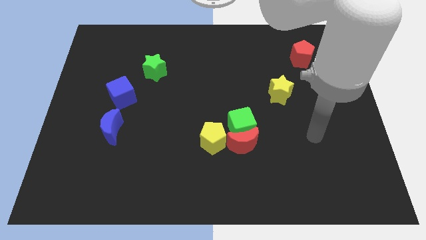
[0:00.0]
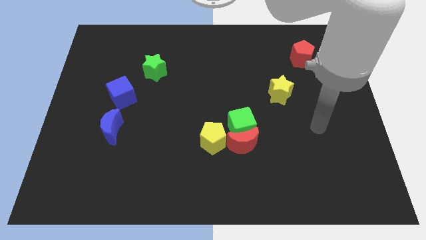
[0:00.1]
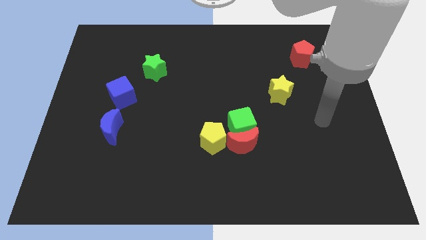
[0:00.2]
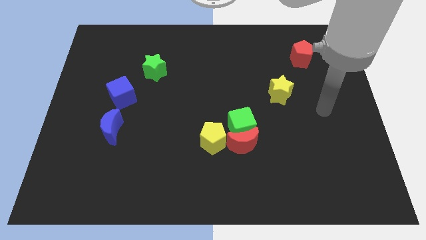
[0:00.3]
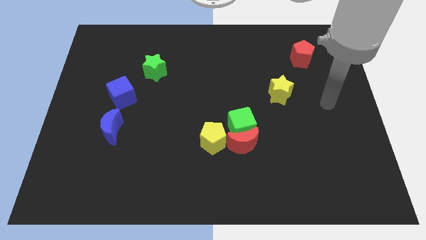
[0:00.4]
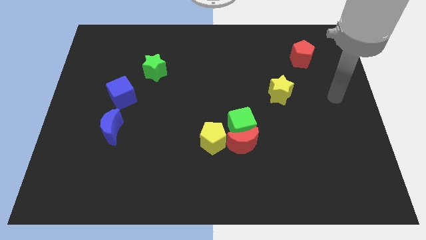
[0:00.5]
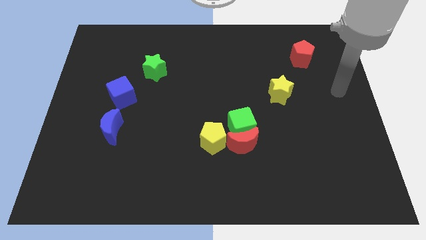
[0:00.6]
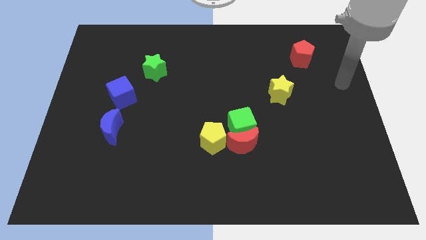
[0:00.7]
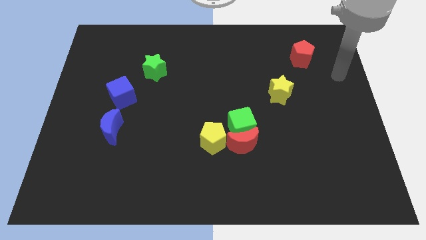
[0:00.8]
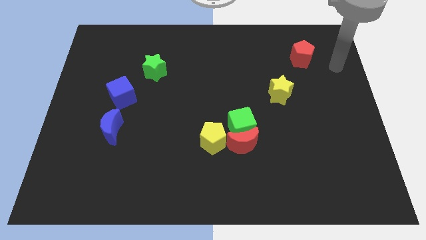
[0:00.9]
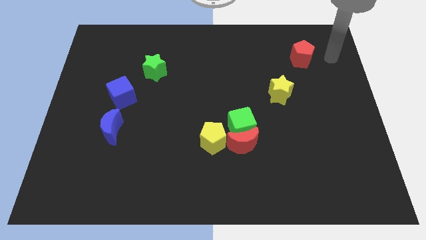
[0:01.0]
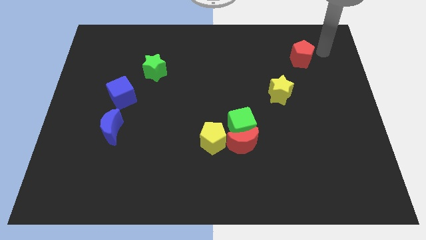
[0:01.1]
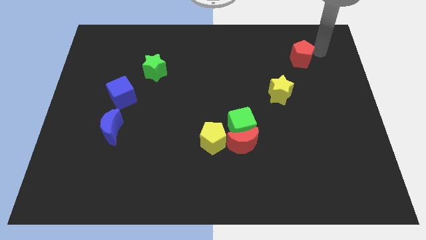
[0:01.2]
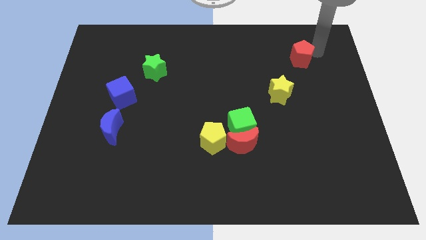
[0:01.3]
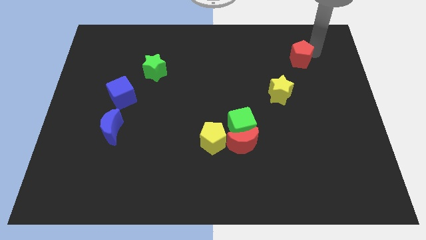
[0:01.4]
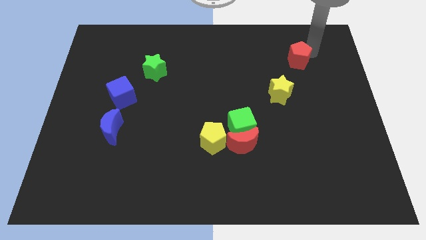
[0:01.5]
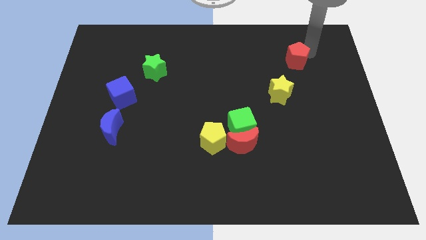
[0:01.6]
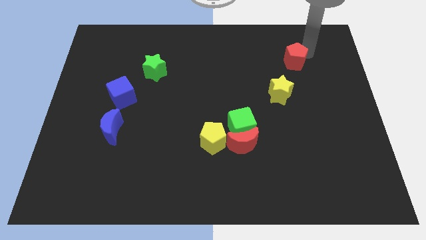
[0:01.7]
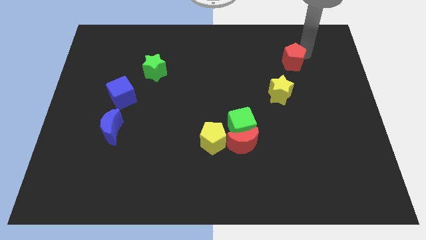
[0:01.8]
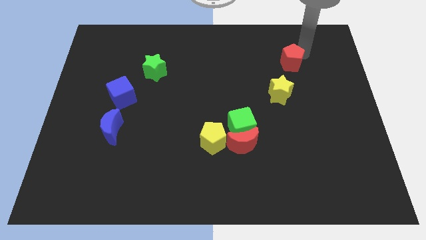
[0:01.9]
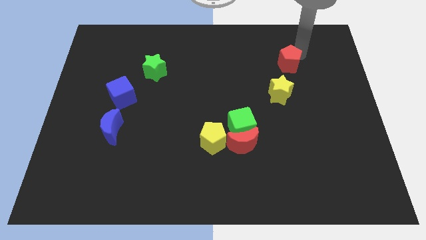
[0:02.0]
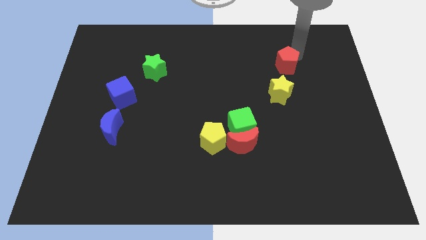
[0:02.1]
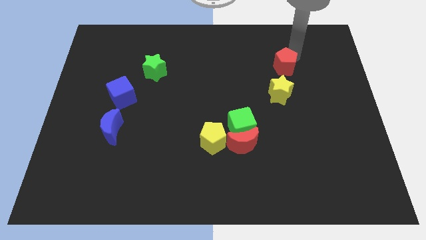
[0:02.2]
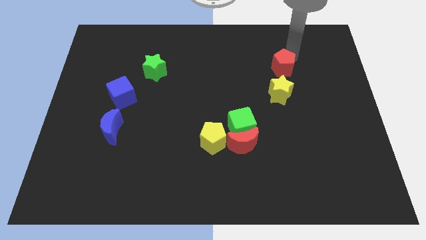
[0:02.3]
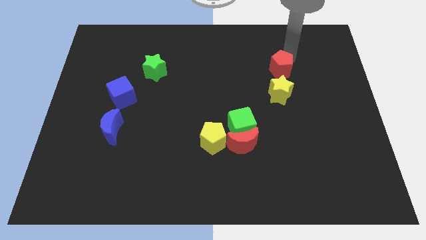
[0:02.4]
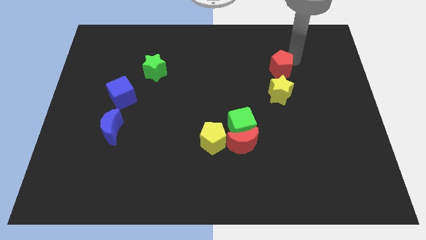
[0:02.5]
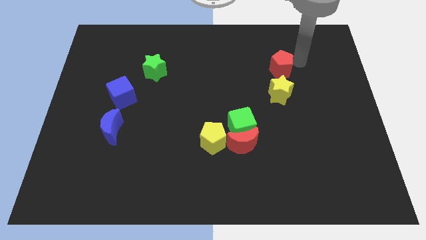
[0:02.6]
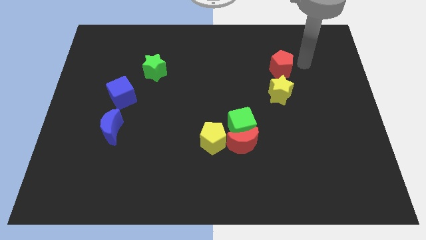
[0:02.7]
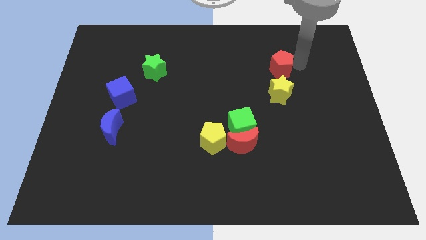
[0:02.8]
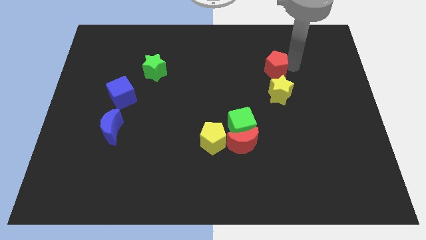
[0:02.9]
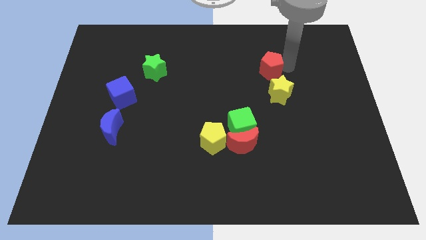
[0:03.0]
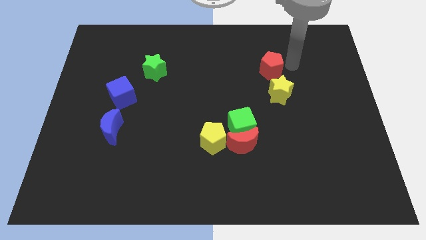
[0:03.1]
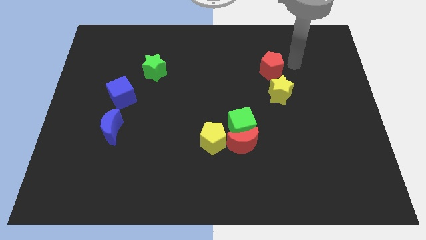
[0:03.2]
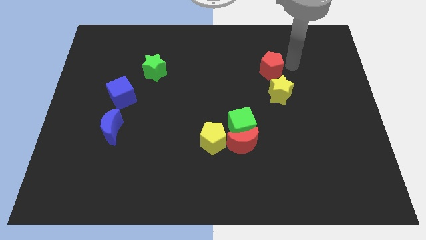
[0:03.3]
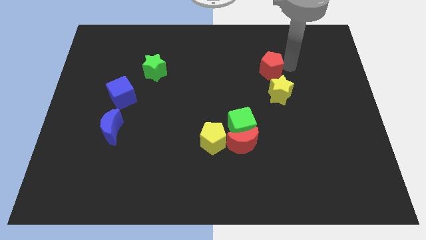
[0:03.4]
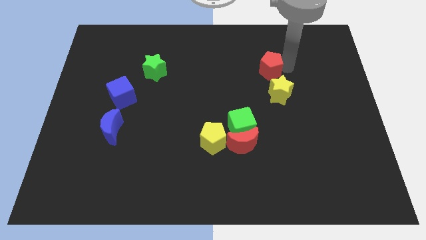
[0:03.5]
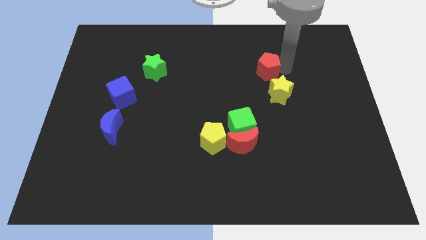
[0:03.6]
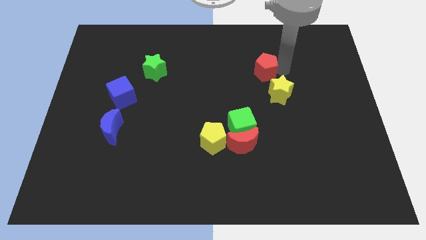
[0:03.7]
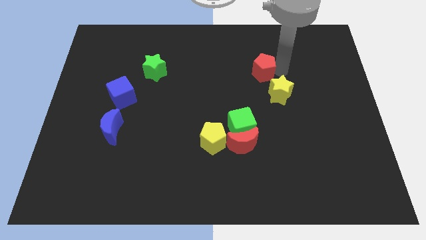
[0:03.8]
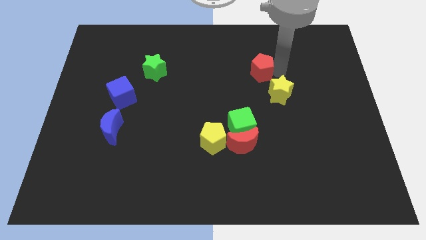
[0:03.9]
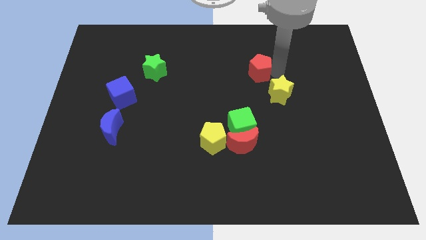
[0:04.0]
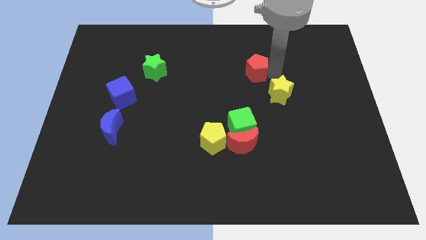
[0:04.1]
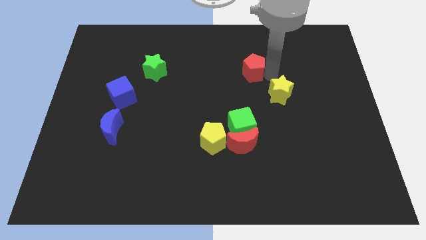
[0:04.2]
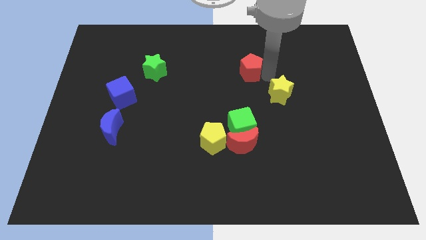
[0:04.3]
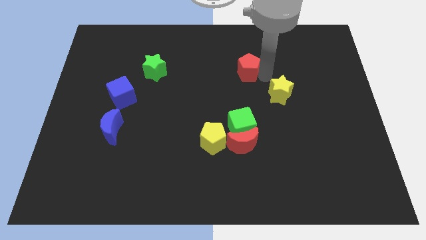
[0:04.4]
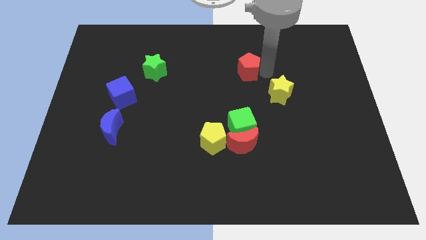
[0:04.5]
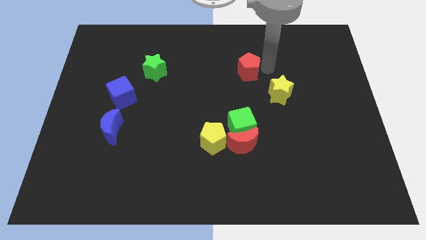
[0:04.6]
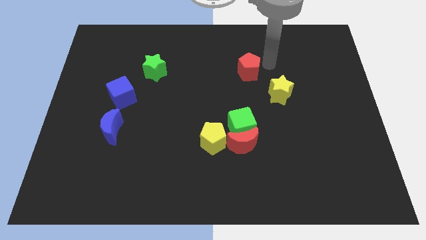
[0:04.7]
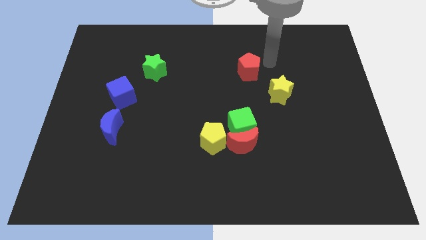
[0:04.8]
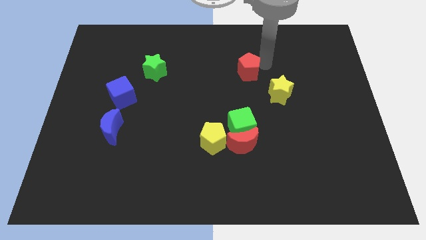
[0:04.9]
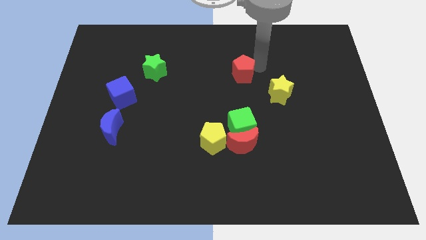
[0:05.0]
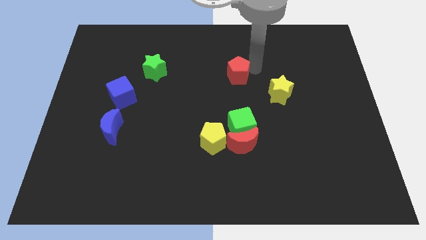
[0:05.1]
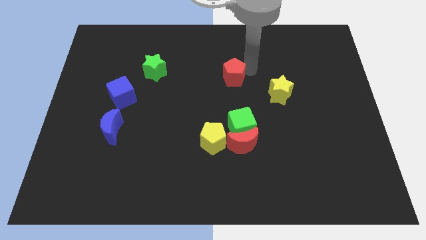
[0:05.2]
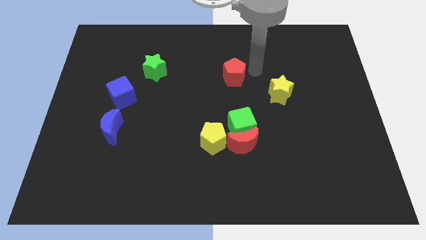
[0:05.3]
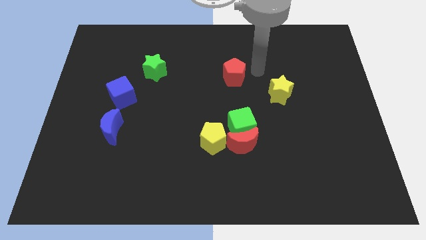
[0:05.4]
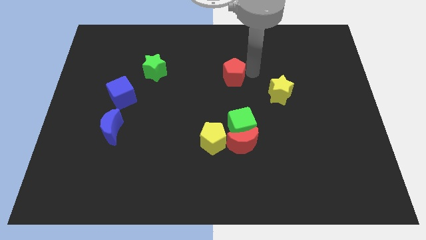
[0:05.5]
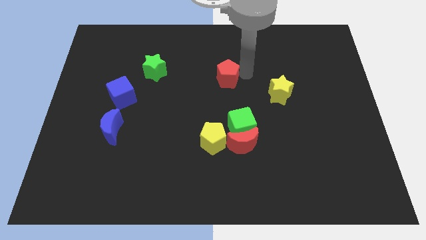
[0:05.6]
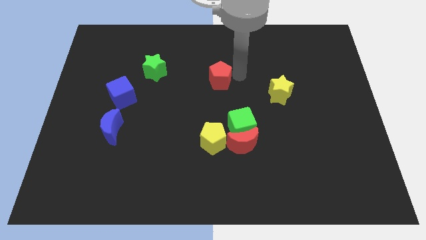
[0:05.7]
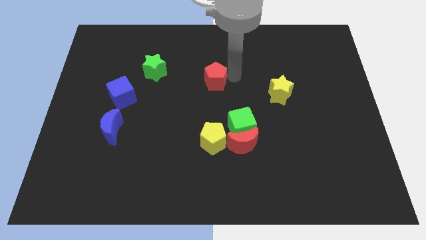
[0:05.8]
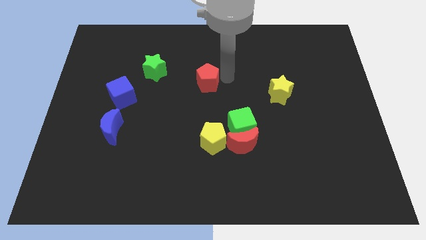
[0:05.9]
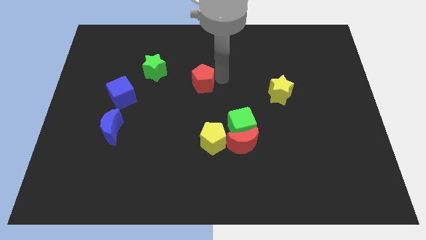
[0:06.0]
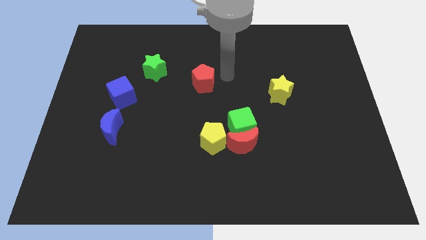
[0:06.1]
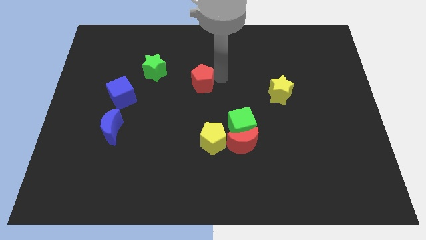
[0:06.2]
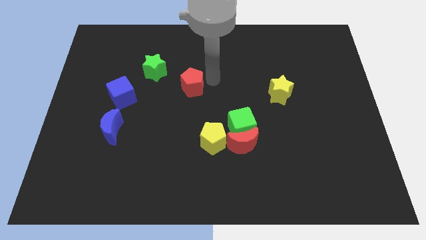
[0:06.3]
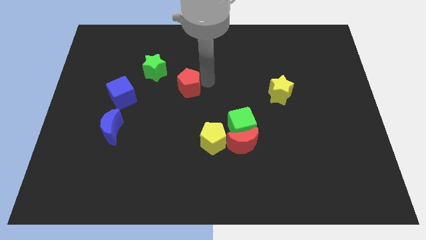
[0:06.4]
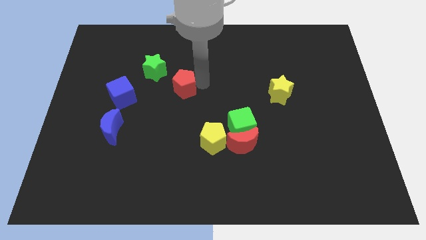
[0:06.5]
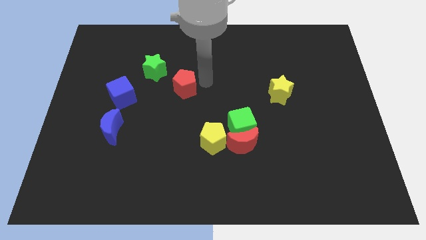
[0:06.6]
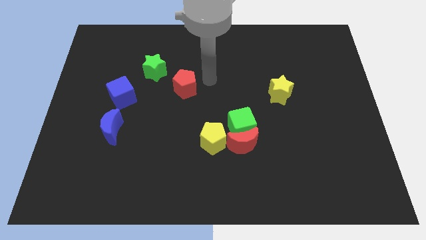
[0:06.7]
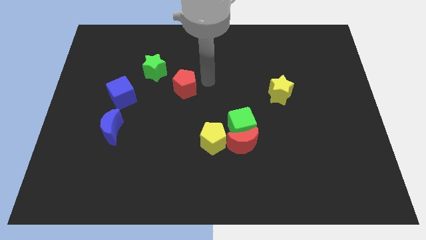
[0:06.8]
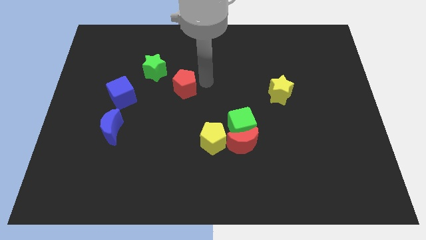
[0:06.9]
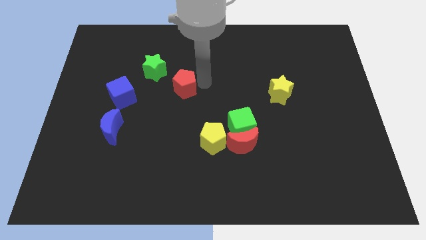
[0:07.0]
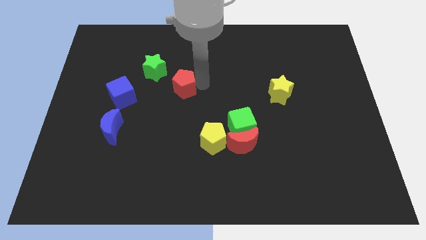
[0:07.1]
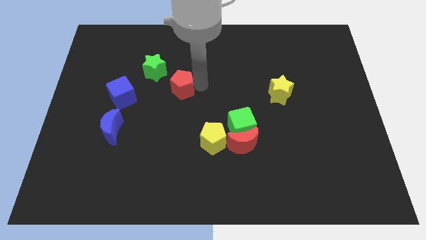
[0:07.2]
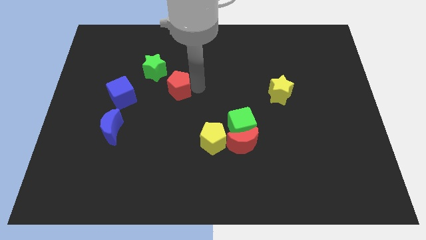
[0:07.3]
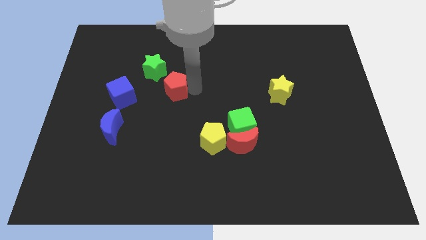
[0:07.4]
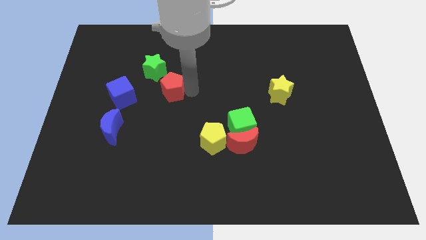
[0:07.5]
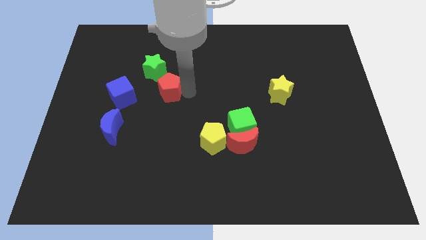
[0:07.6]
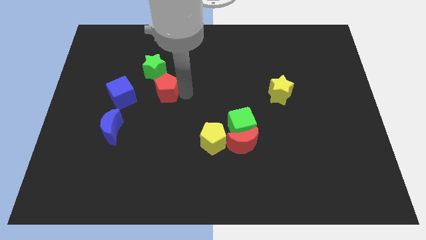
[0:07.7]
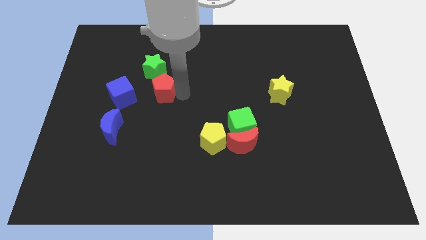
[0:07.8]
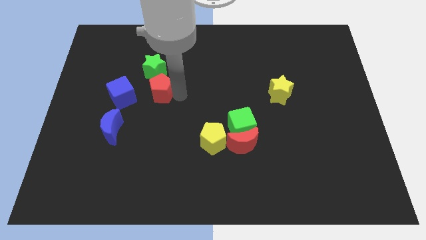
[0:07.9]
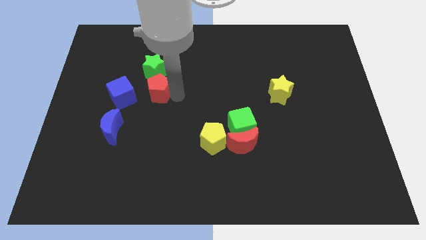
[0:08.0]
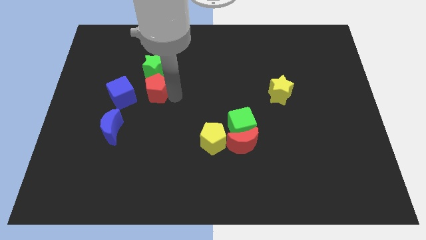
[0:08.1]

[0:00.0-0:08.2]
put the red pentagon to the top right of the blue cube
